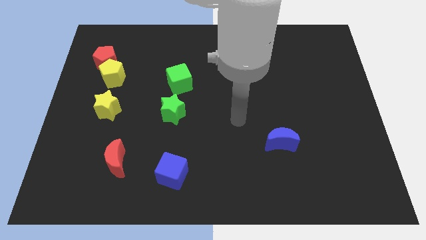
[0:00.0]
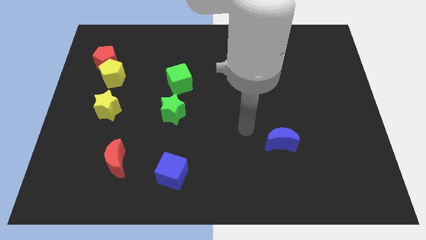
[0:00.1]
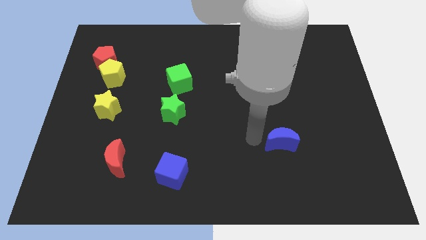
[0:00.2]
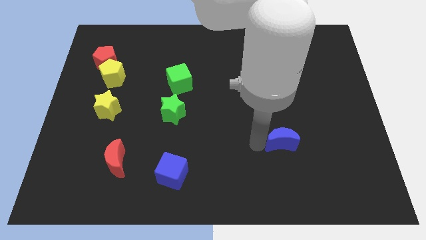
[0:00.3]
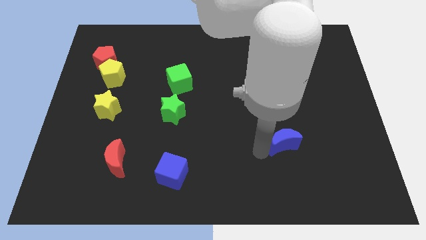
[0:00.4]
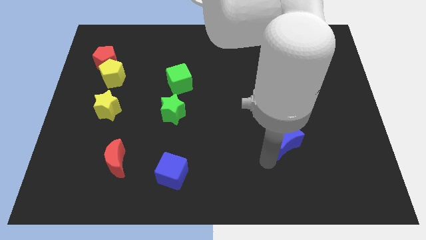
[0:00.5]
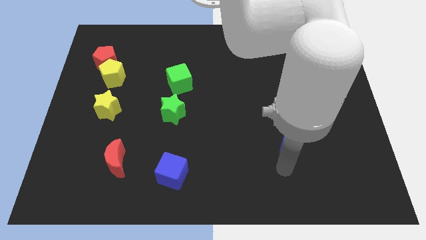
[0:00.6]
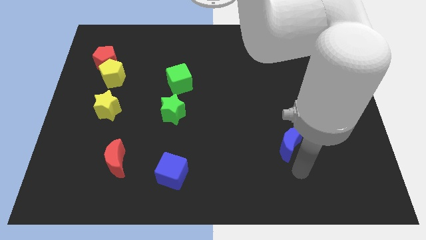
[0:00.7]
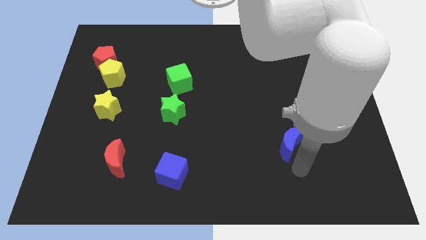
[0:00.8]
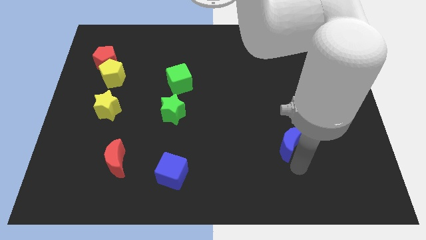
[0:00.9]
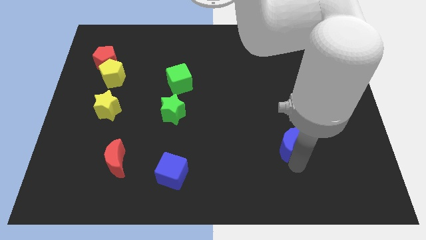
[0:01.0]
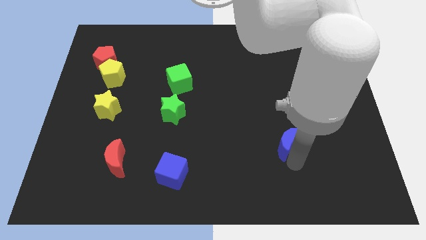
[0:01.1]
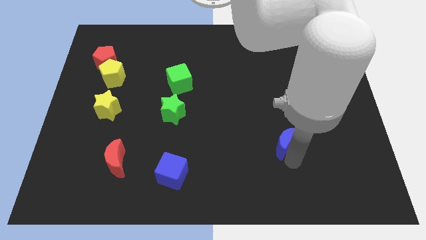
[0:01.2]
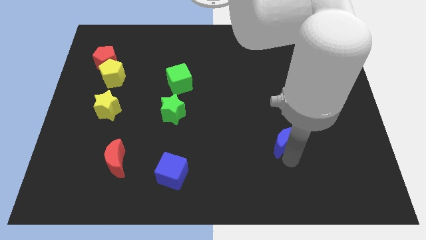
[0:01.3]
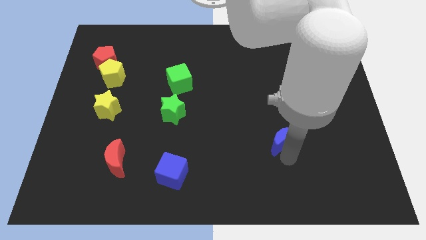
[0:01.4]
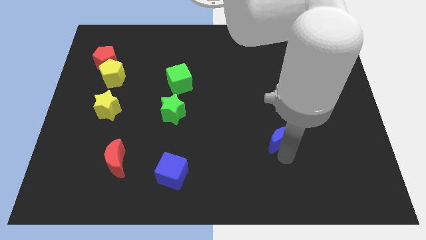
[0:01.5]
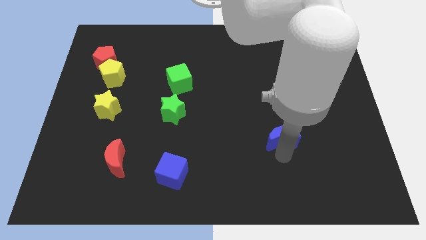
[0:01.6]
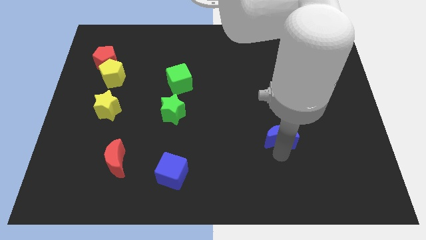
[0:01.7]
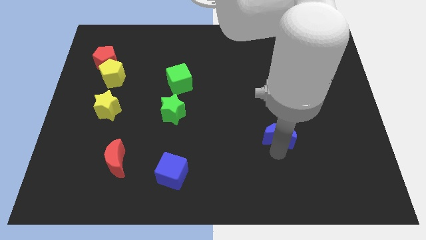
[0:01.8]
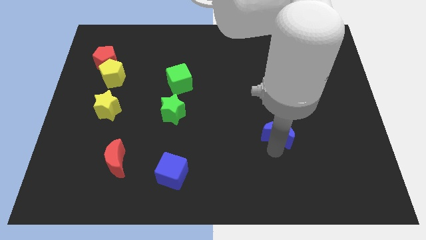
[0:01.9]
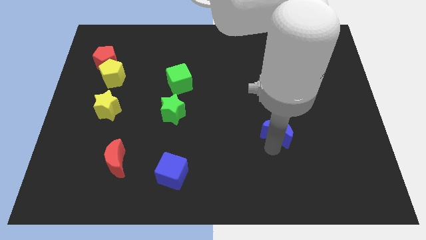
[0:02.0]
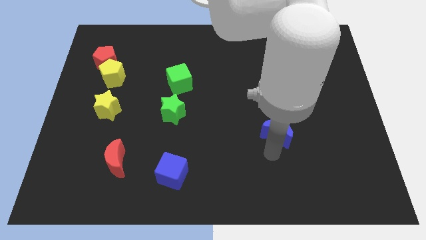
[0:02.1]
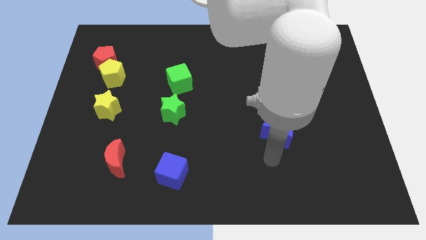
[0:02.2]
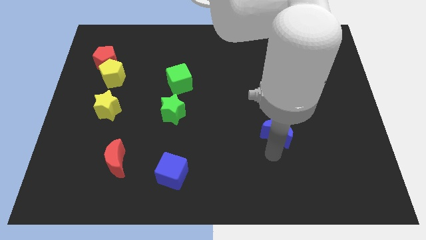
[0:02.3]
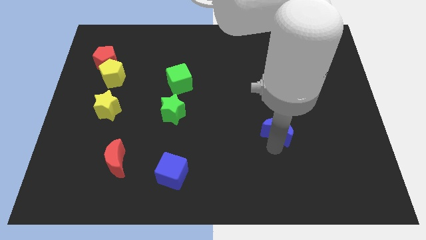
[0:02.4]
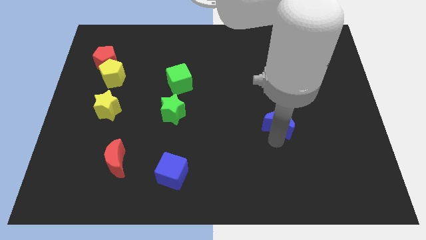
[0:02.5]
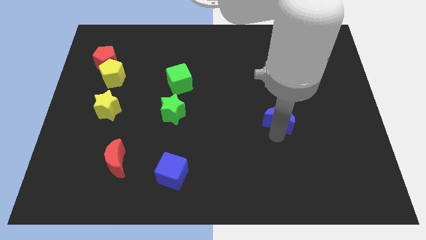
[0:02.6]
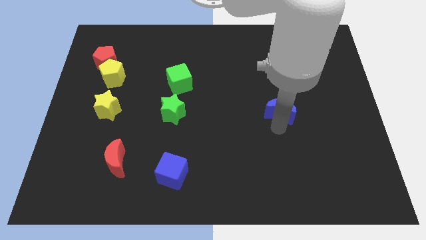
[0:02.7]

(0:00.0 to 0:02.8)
slide the blue moon up slightly

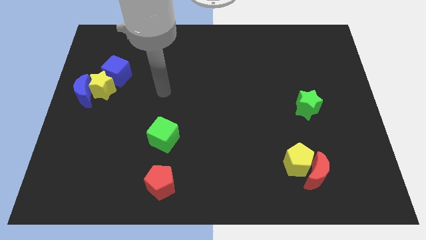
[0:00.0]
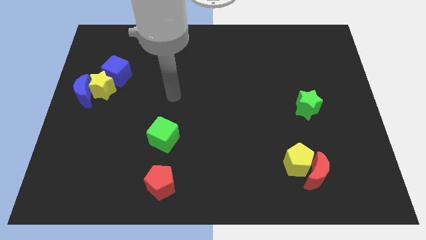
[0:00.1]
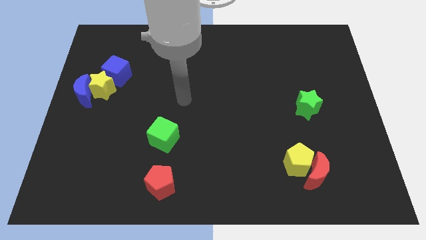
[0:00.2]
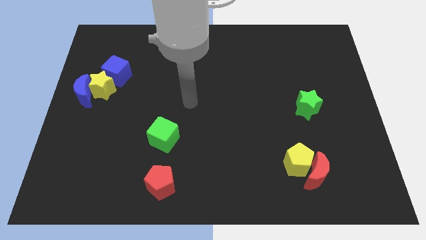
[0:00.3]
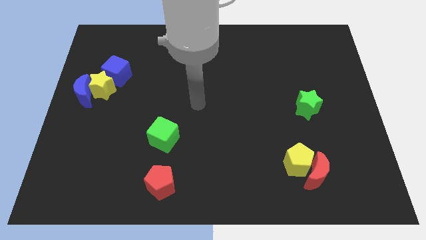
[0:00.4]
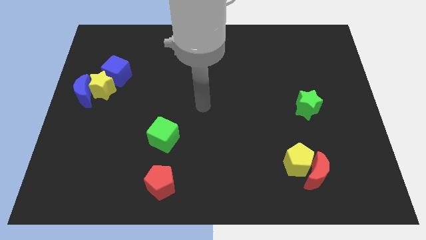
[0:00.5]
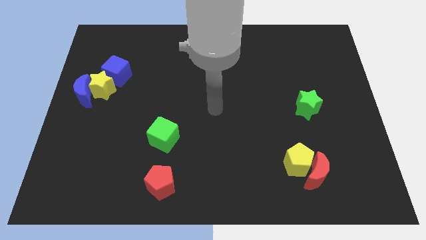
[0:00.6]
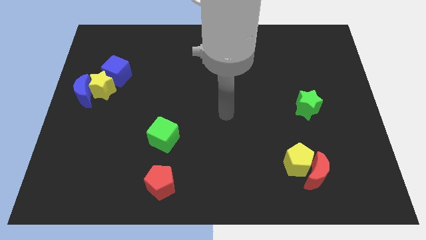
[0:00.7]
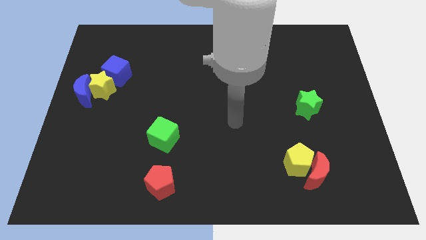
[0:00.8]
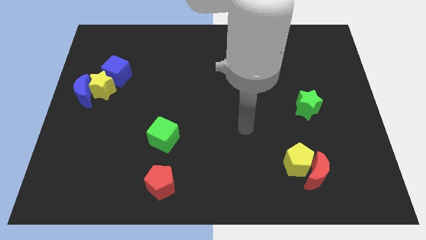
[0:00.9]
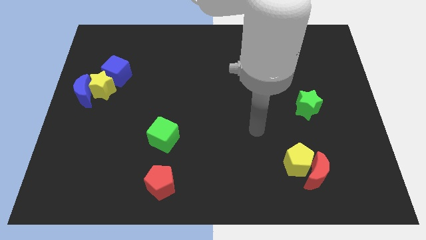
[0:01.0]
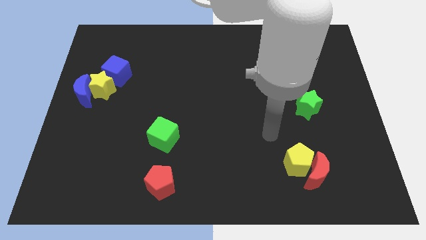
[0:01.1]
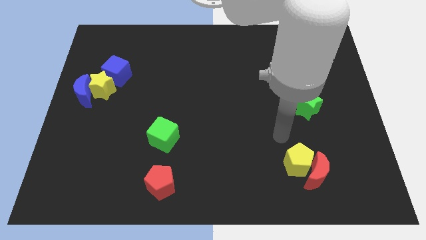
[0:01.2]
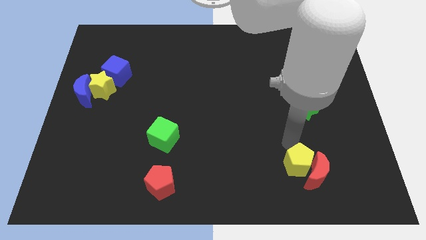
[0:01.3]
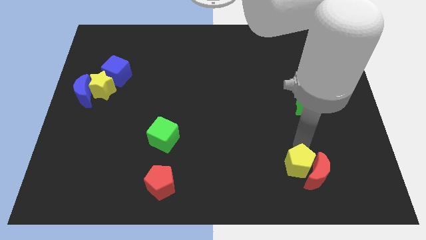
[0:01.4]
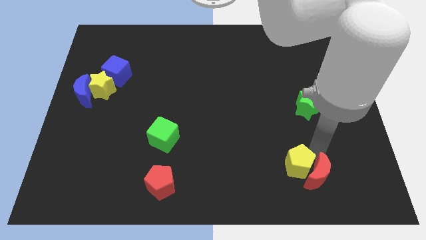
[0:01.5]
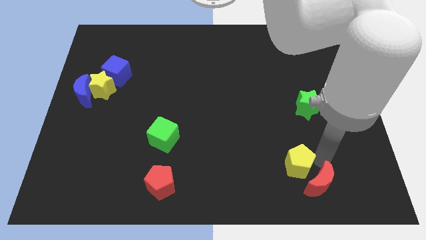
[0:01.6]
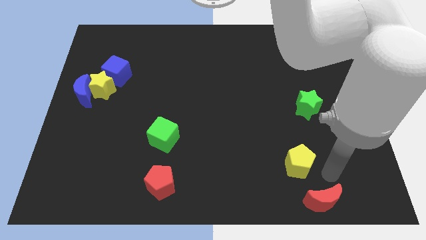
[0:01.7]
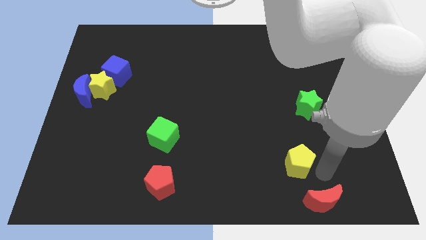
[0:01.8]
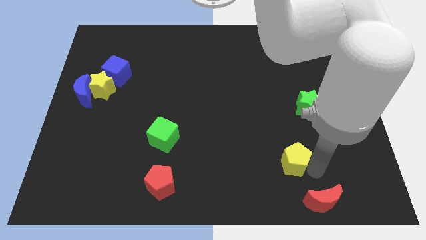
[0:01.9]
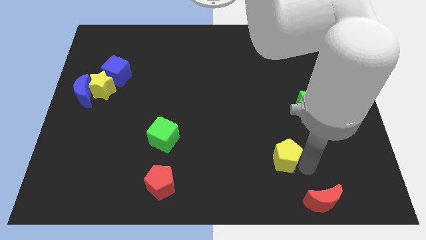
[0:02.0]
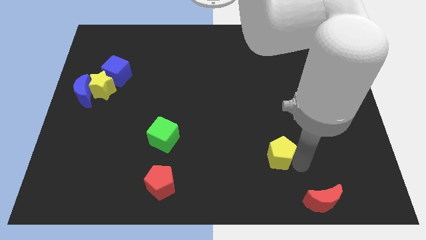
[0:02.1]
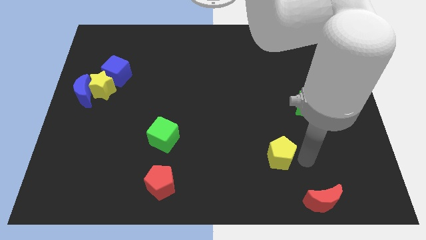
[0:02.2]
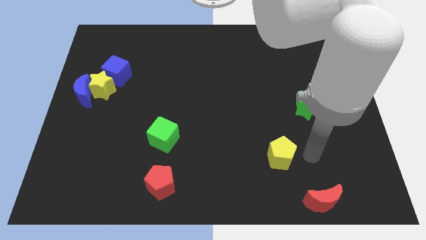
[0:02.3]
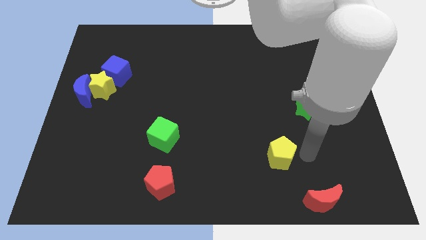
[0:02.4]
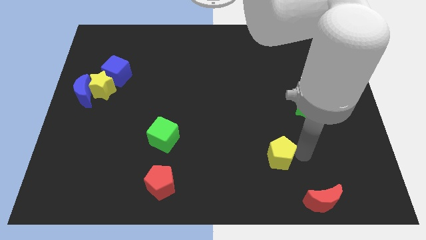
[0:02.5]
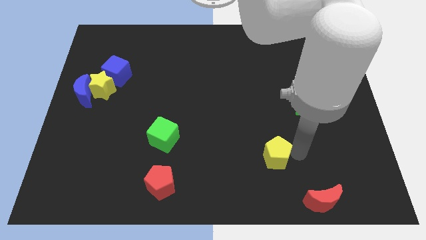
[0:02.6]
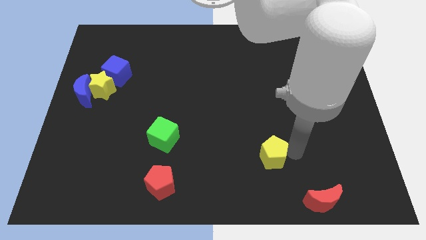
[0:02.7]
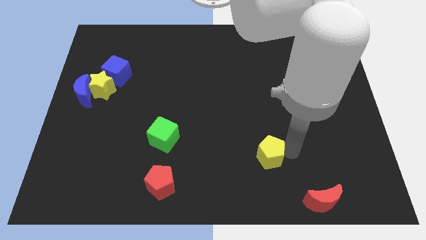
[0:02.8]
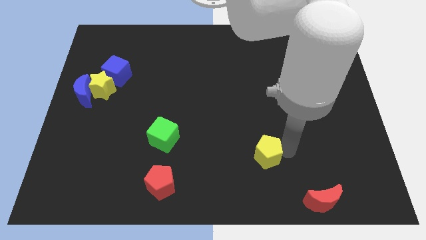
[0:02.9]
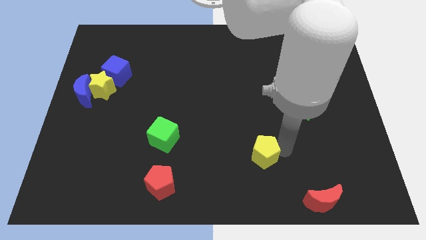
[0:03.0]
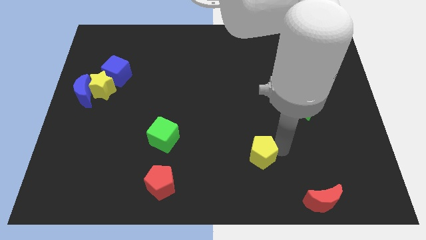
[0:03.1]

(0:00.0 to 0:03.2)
move the yellow pentagon a little left

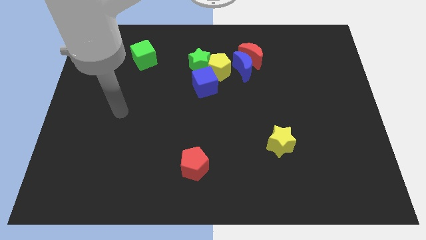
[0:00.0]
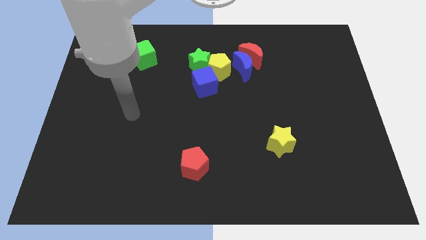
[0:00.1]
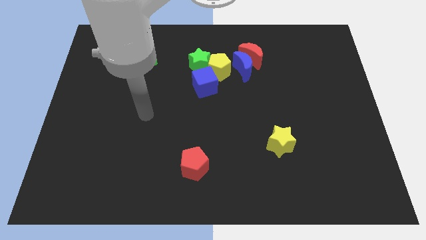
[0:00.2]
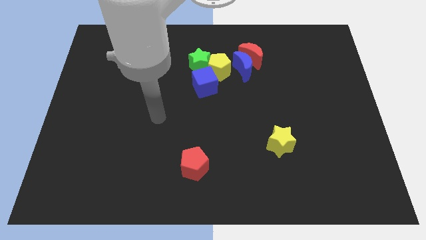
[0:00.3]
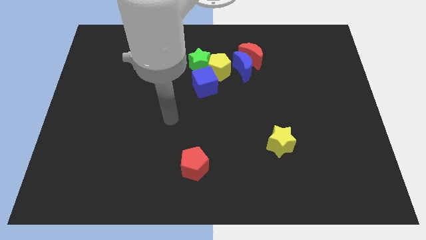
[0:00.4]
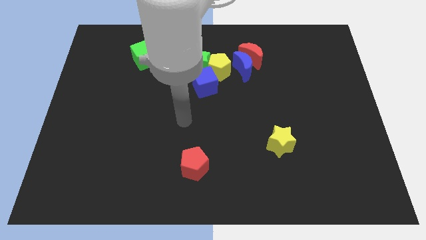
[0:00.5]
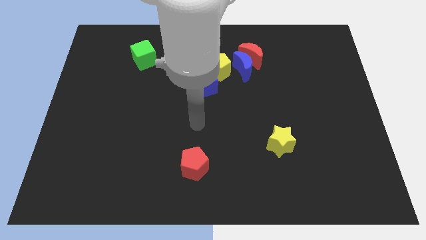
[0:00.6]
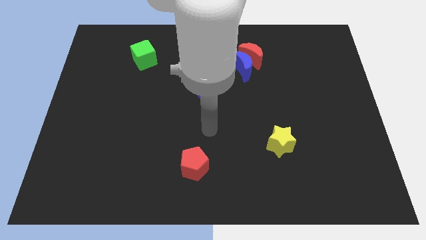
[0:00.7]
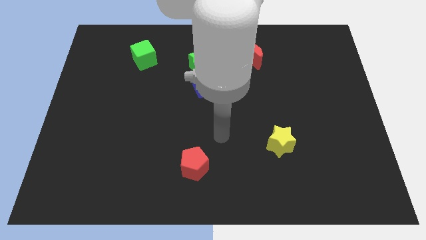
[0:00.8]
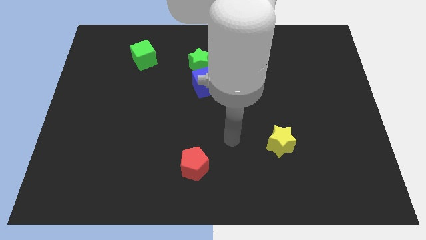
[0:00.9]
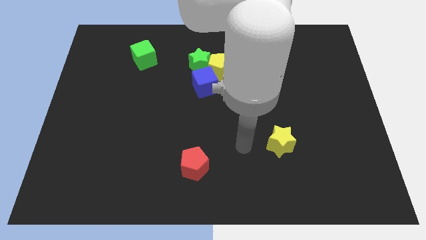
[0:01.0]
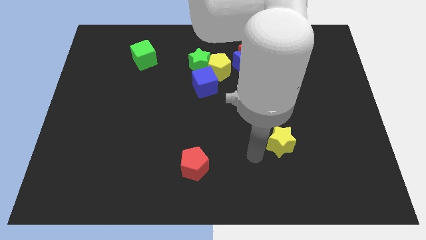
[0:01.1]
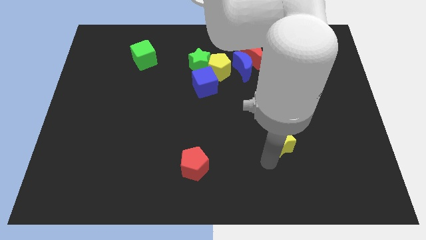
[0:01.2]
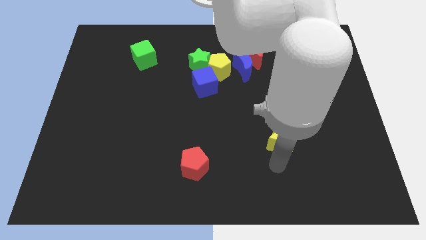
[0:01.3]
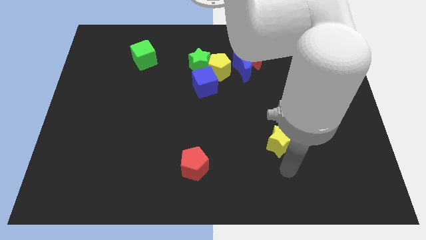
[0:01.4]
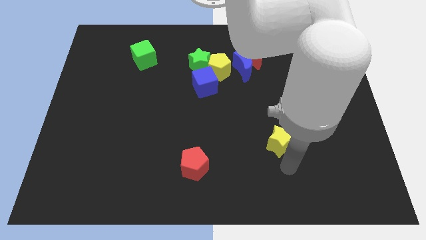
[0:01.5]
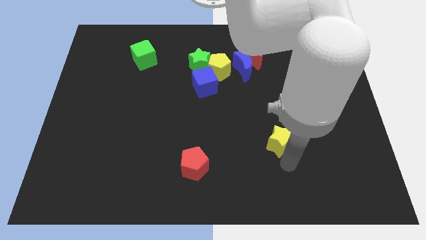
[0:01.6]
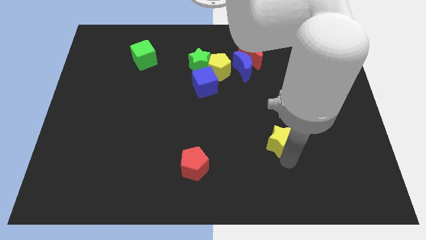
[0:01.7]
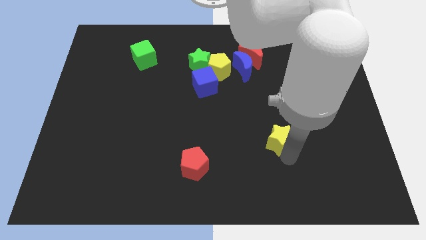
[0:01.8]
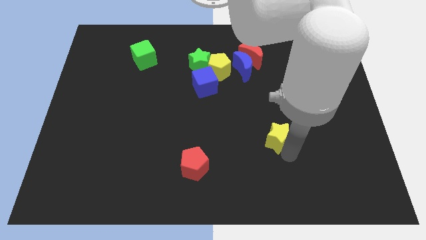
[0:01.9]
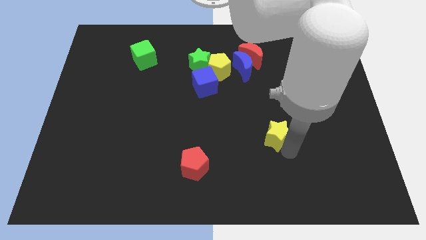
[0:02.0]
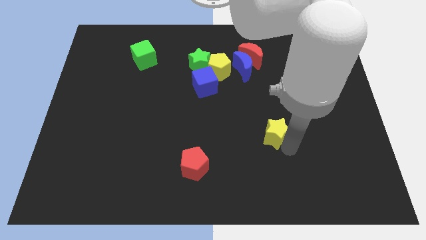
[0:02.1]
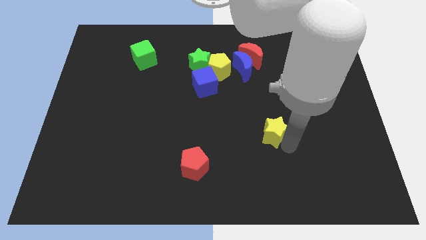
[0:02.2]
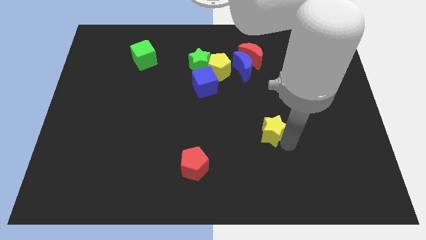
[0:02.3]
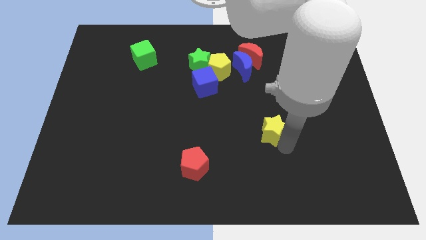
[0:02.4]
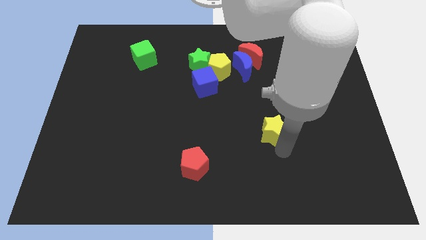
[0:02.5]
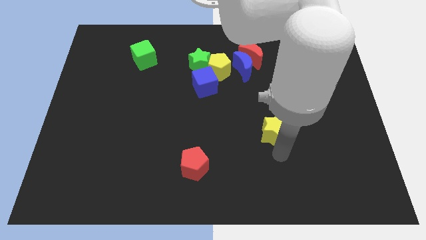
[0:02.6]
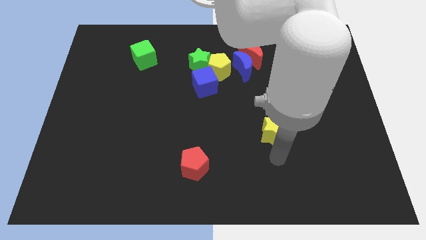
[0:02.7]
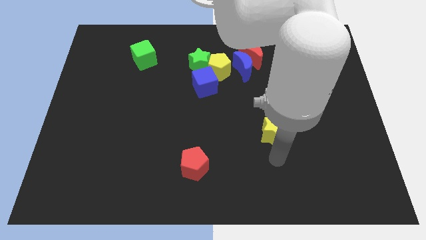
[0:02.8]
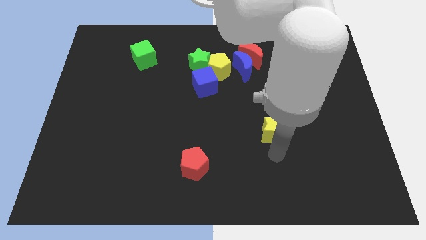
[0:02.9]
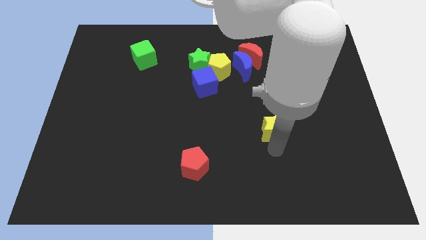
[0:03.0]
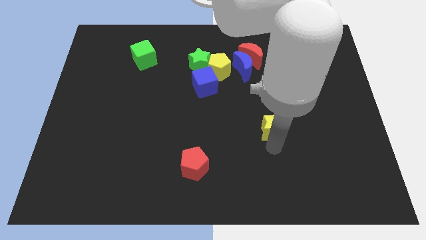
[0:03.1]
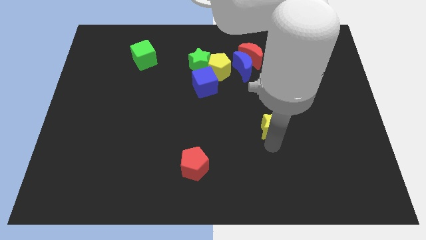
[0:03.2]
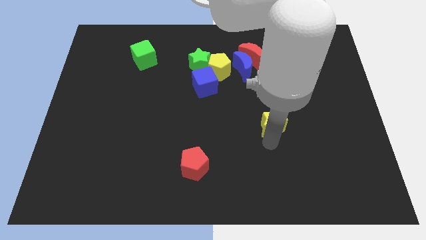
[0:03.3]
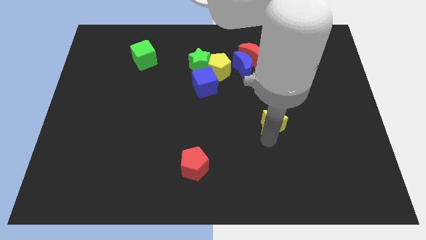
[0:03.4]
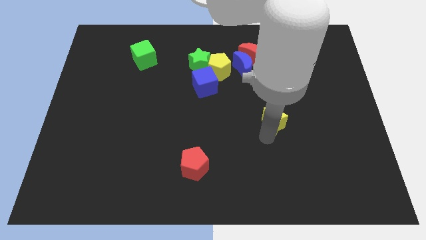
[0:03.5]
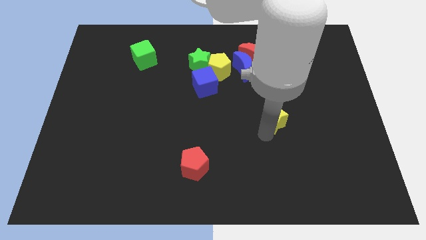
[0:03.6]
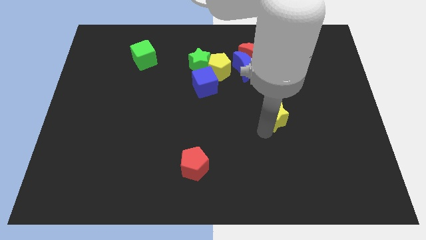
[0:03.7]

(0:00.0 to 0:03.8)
move the yellow star upwards a little bit
